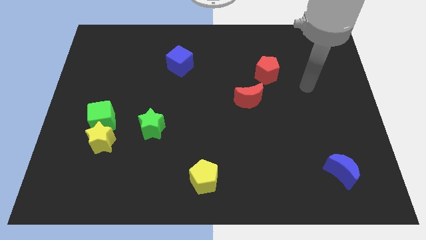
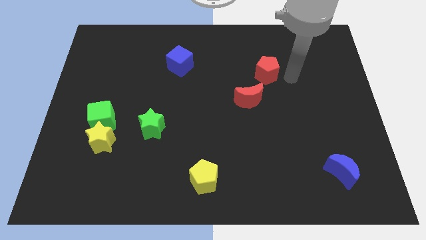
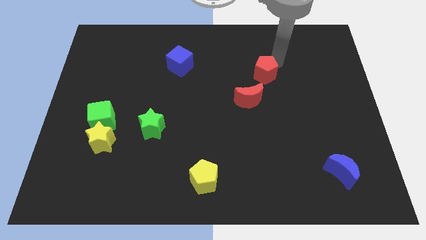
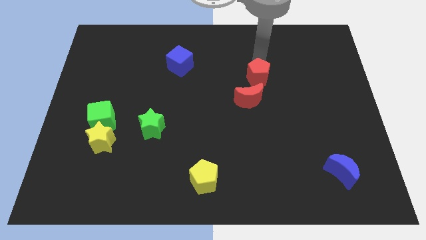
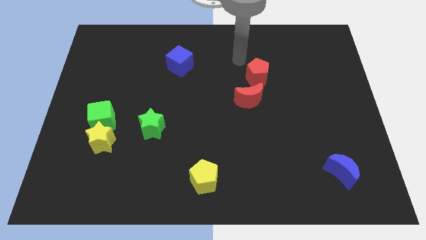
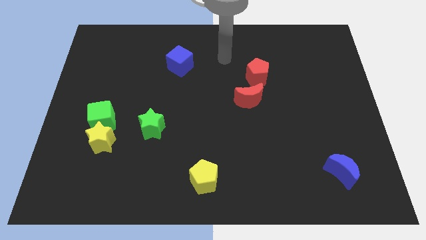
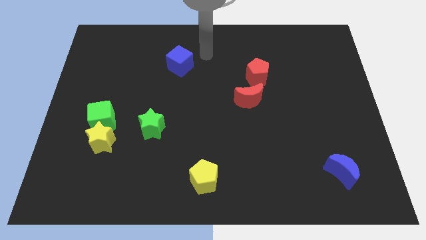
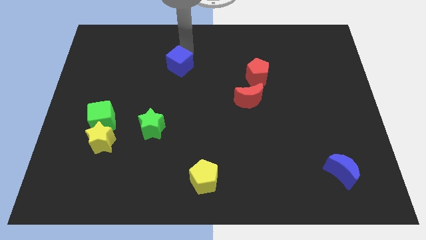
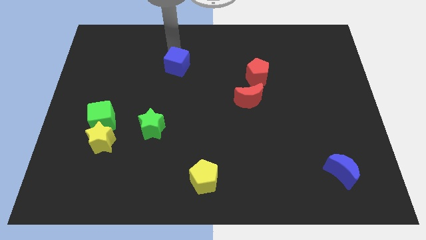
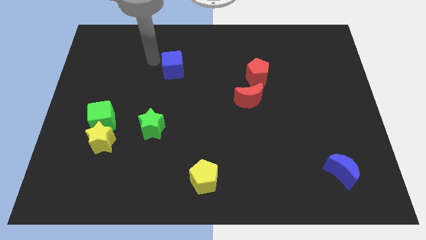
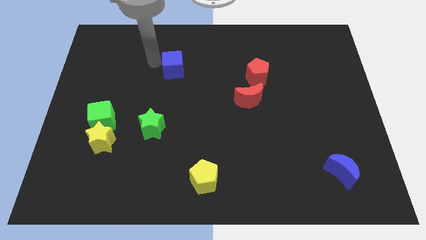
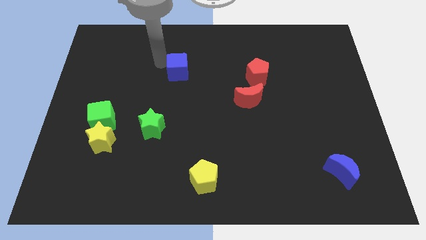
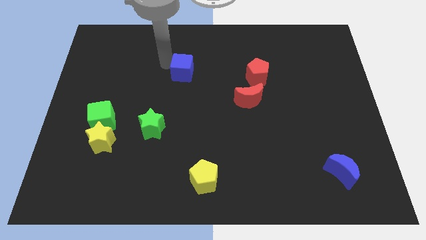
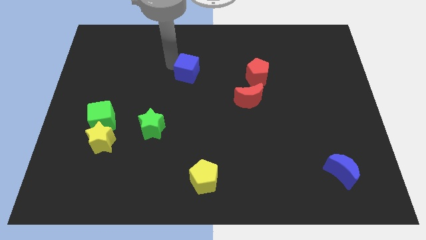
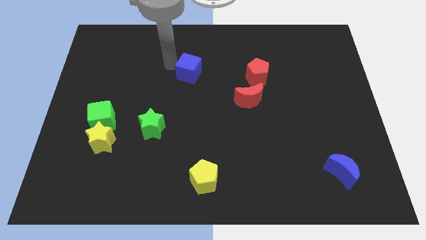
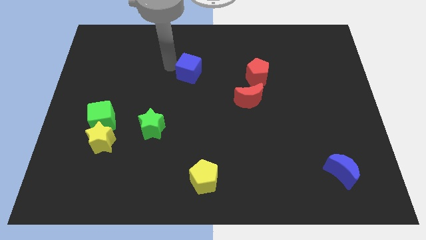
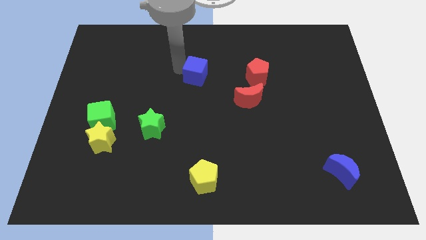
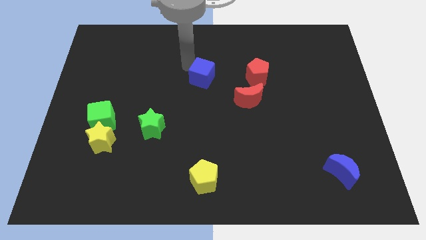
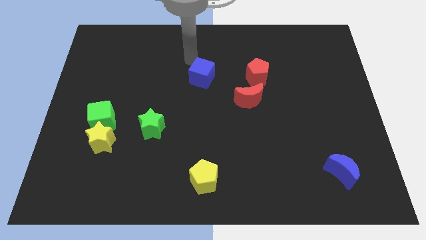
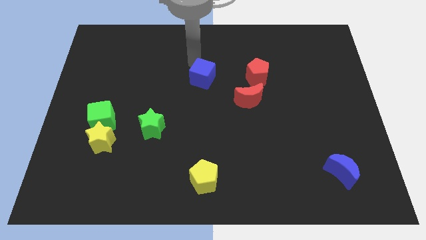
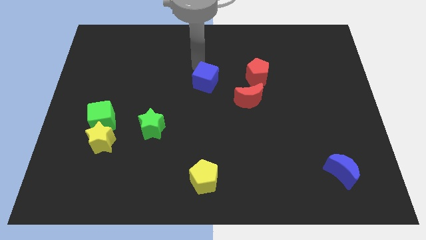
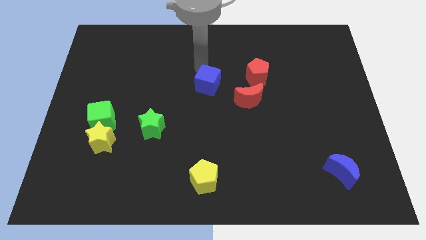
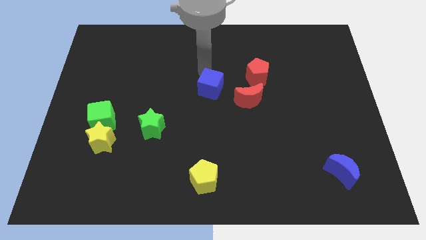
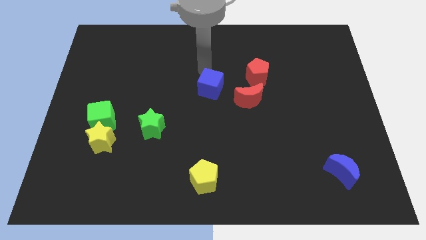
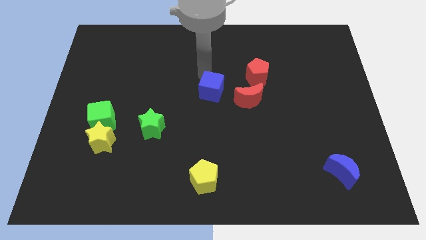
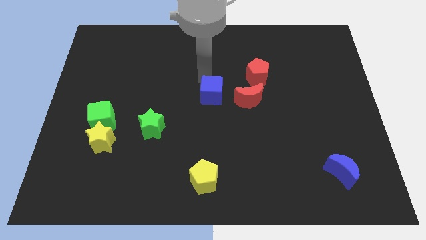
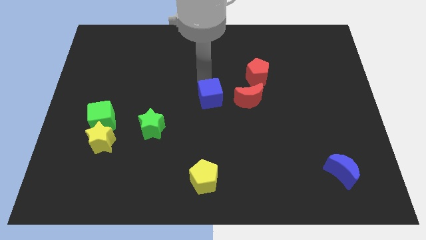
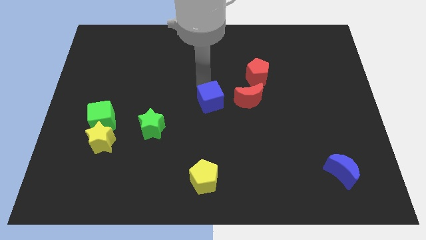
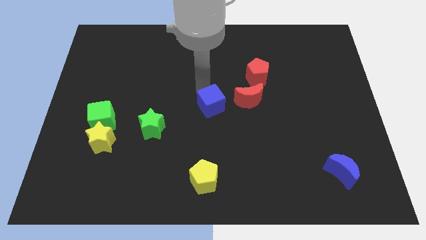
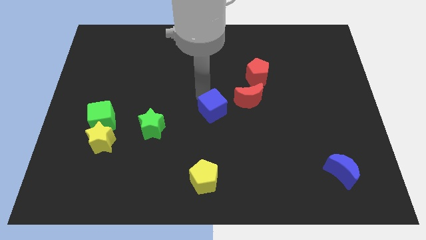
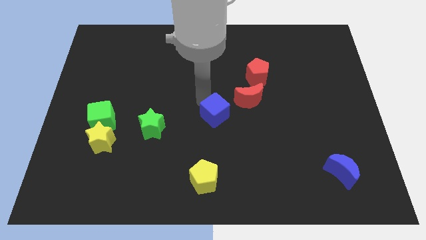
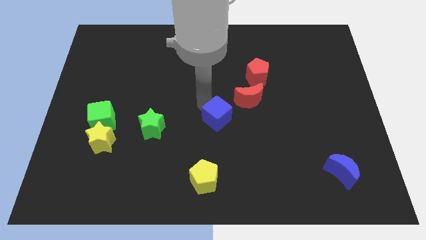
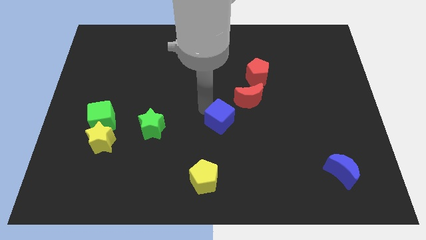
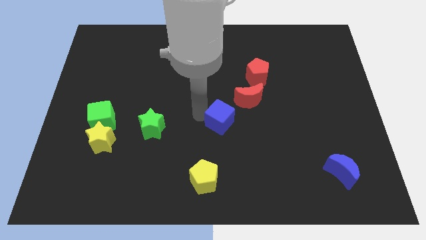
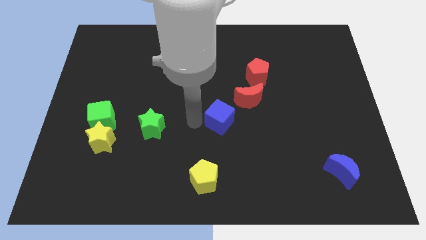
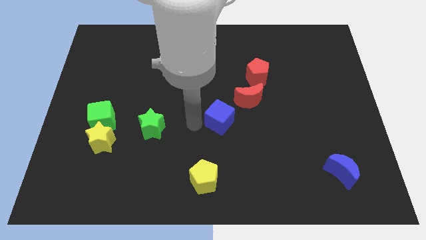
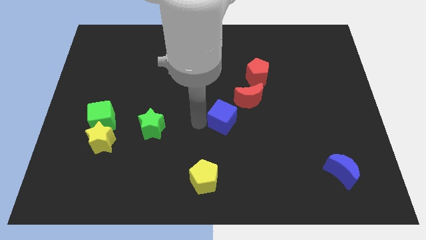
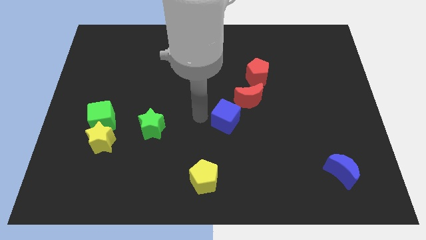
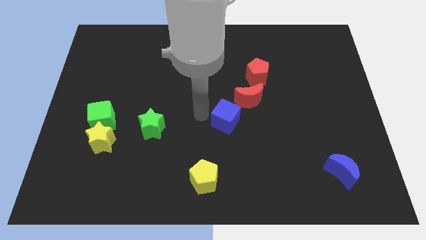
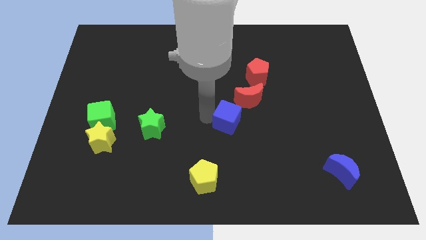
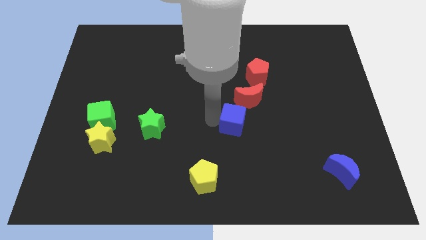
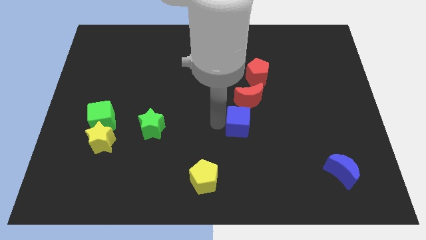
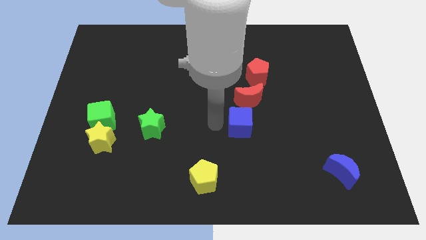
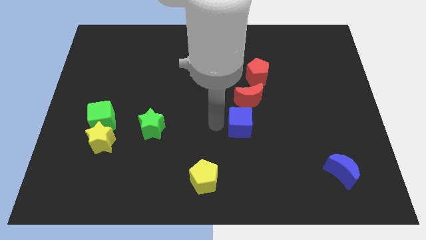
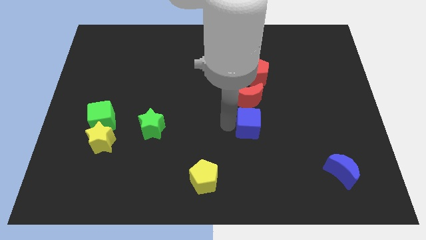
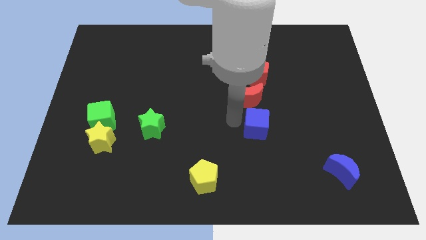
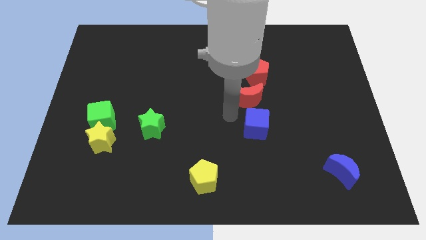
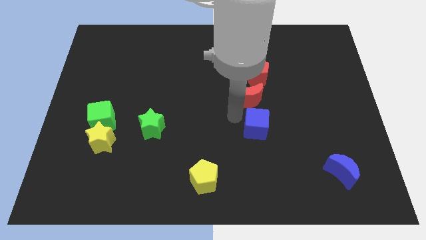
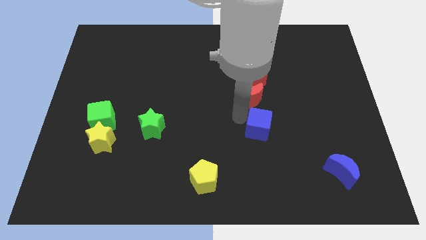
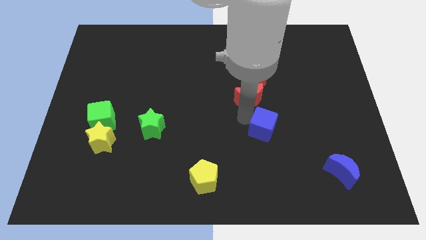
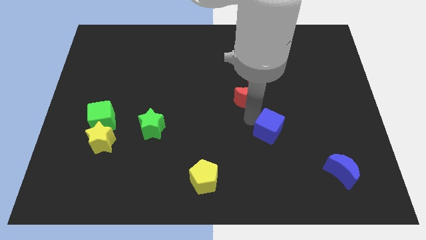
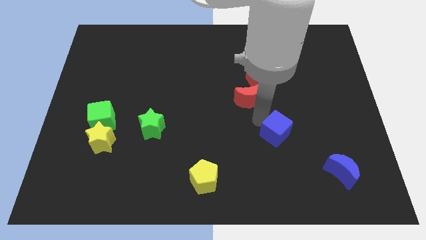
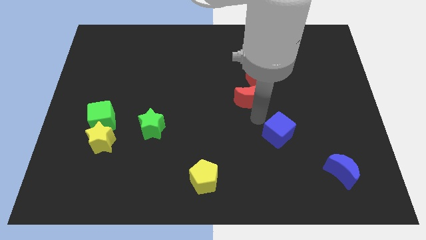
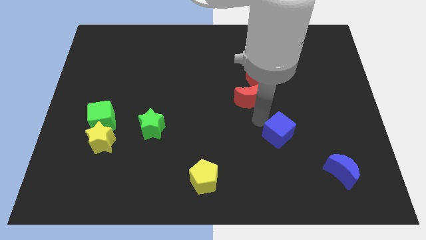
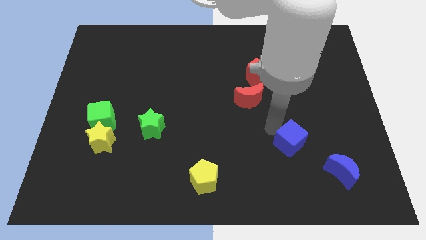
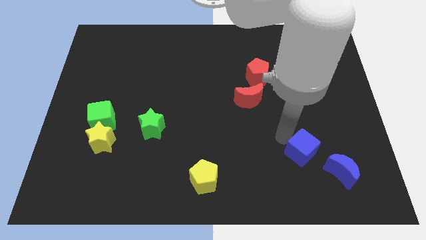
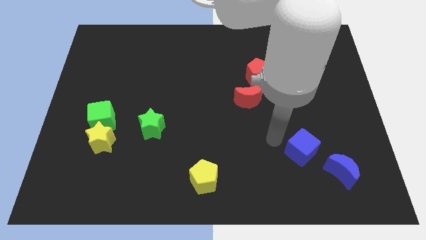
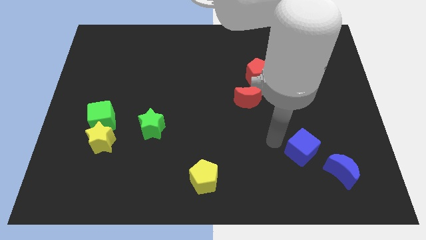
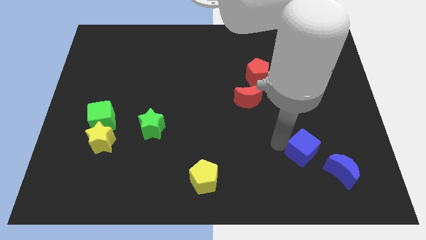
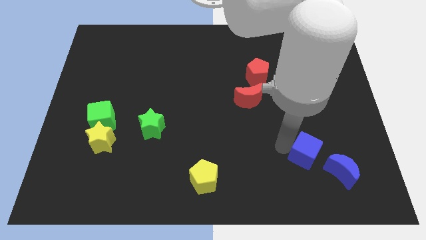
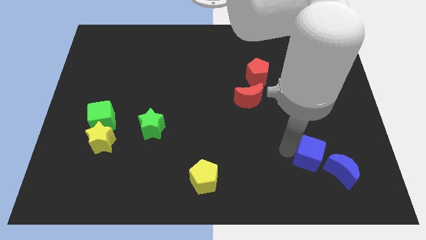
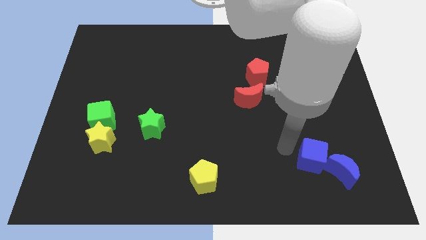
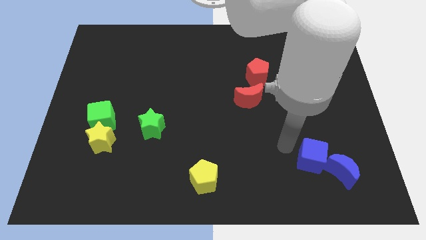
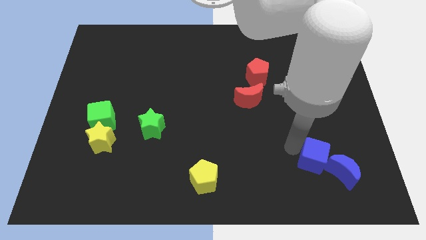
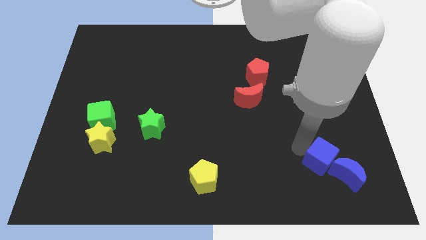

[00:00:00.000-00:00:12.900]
push the blue cube towards the blue moon

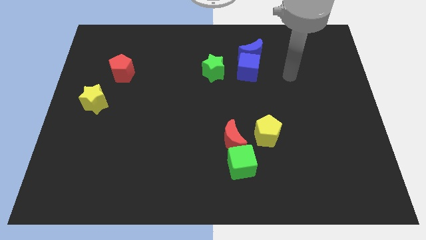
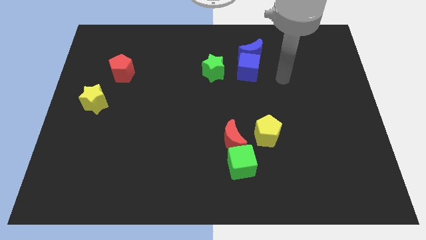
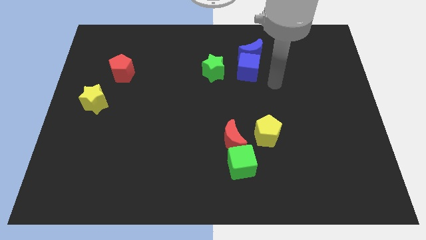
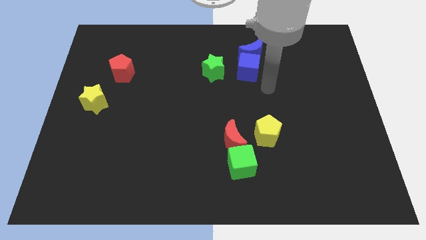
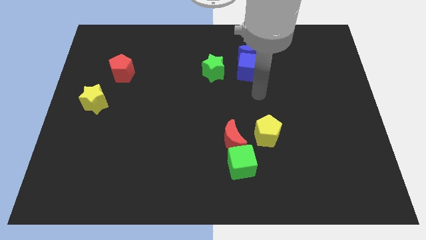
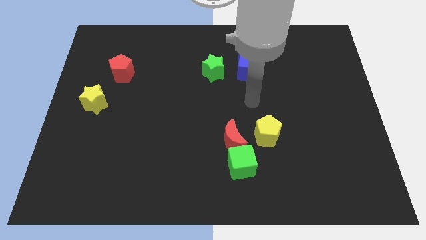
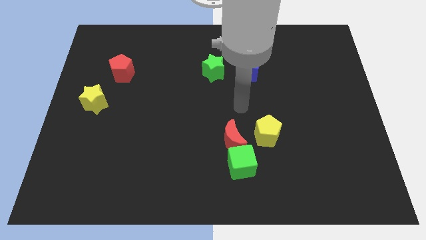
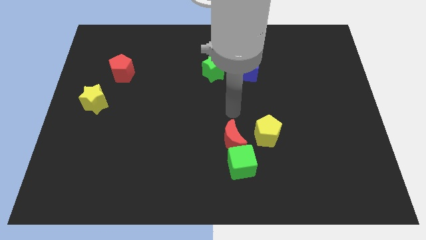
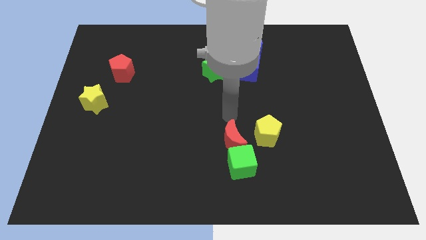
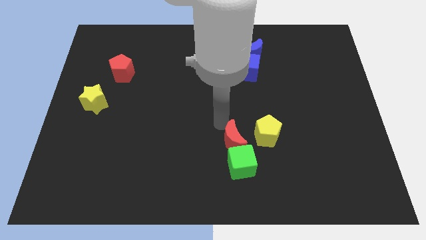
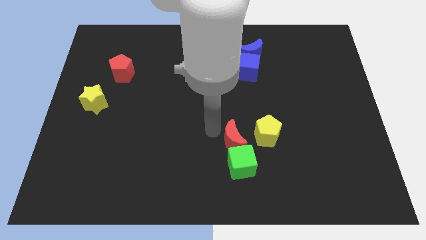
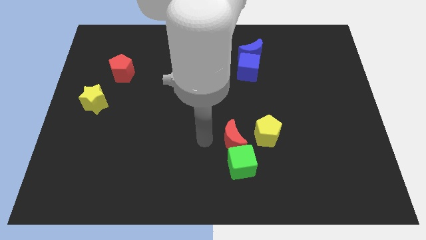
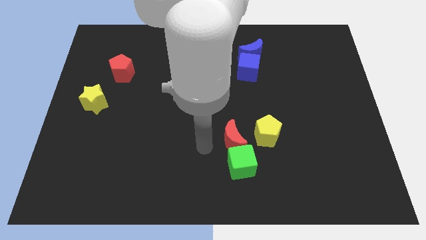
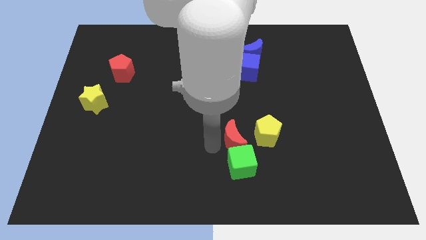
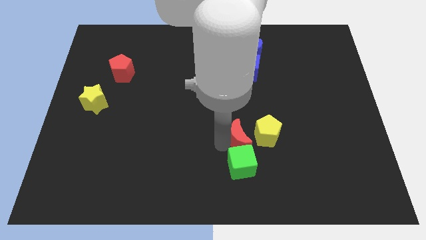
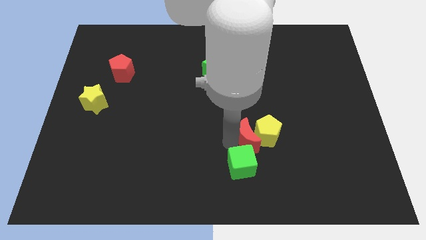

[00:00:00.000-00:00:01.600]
slide the red moon next to the yellow pentagon
